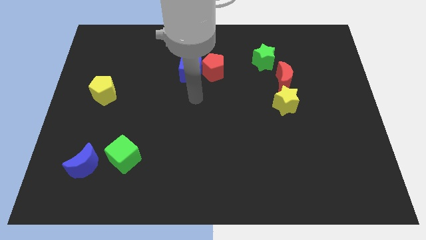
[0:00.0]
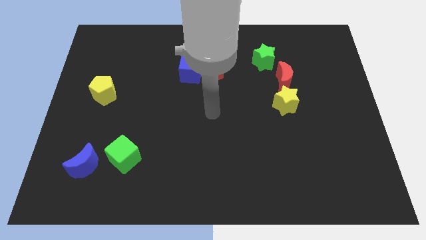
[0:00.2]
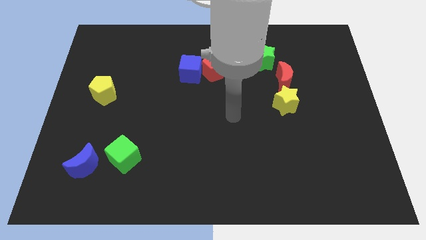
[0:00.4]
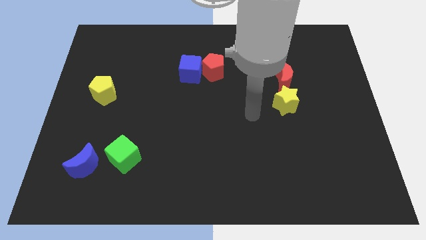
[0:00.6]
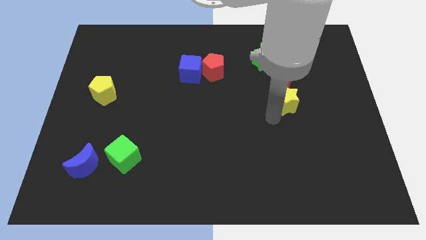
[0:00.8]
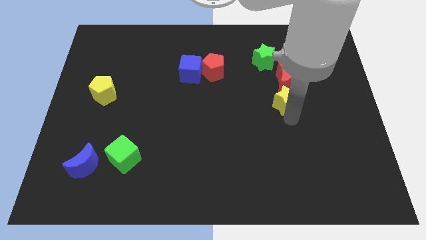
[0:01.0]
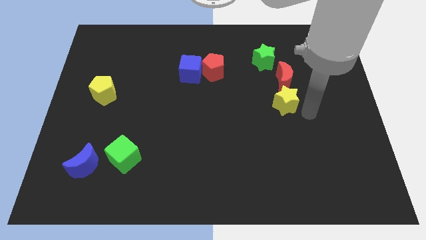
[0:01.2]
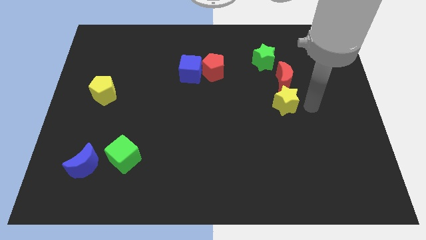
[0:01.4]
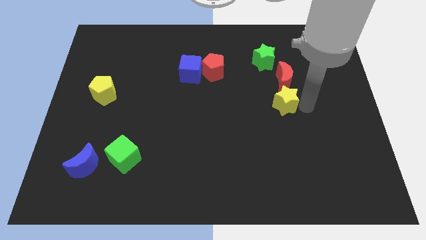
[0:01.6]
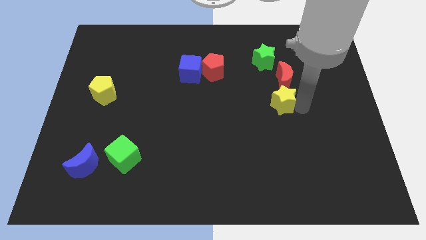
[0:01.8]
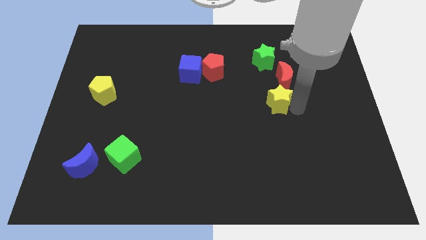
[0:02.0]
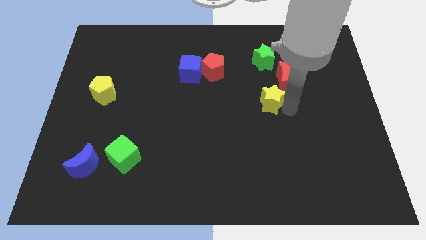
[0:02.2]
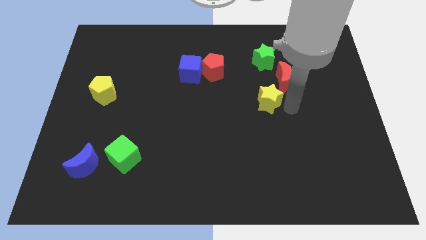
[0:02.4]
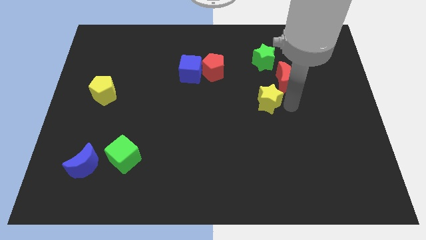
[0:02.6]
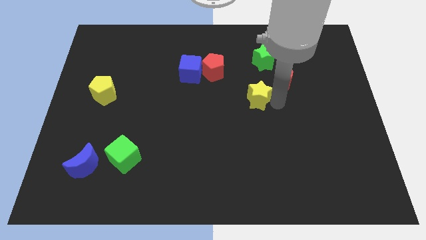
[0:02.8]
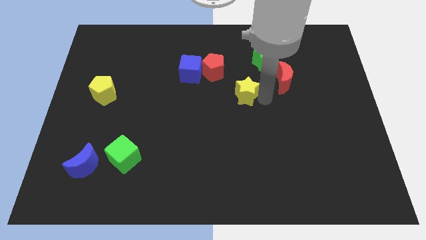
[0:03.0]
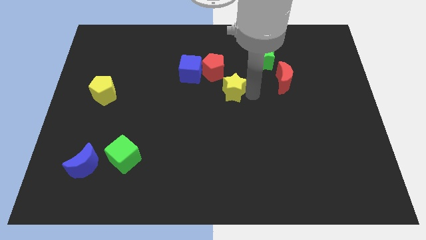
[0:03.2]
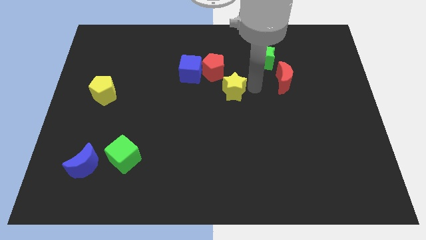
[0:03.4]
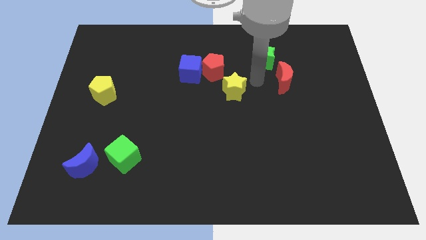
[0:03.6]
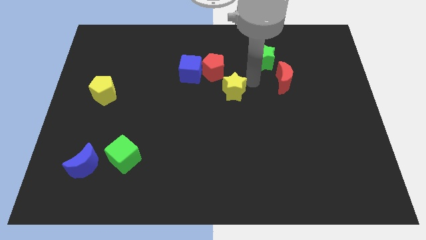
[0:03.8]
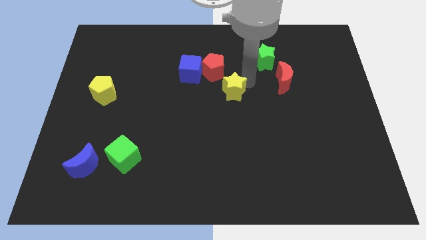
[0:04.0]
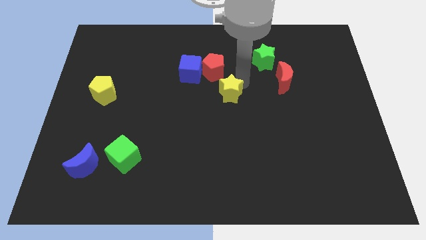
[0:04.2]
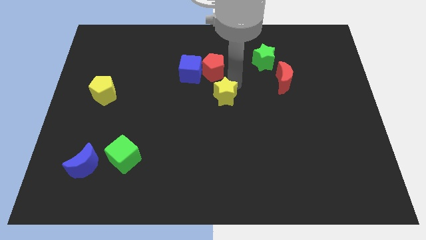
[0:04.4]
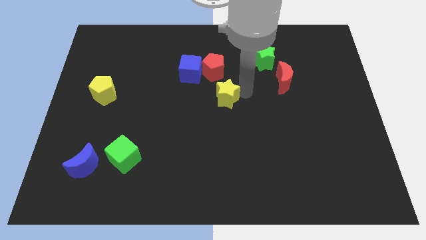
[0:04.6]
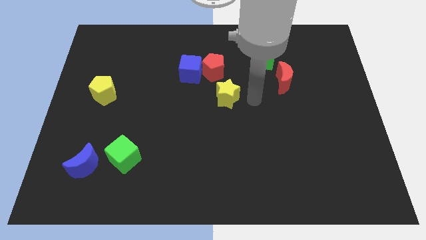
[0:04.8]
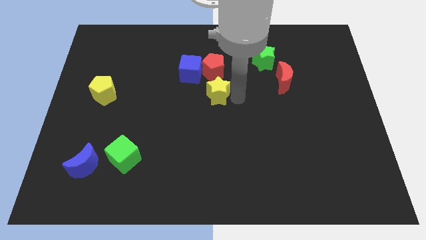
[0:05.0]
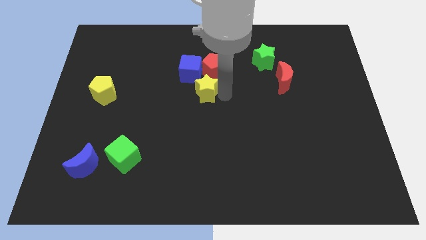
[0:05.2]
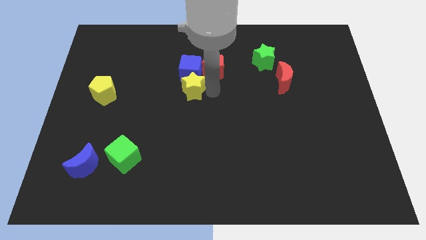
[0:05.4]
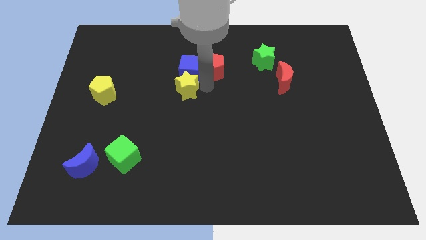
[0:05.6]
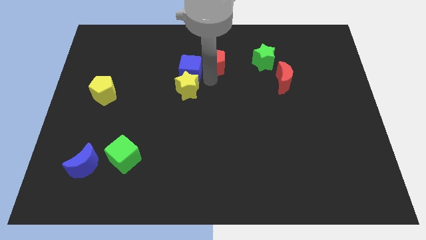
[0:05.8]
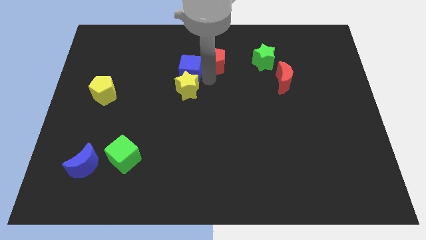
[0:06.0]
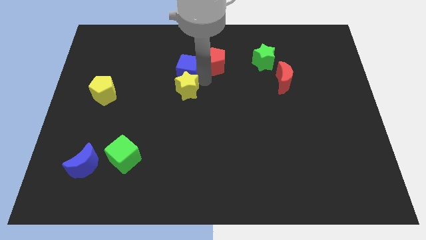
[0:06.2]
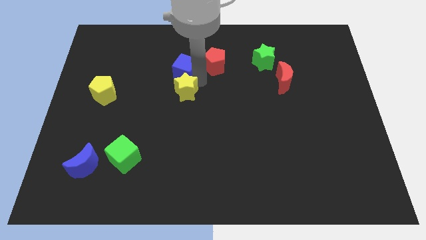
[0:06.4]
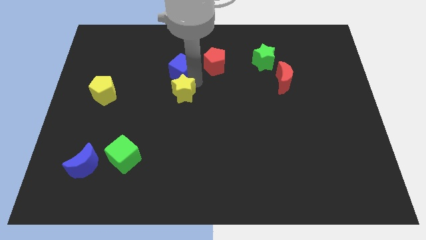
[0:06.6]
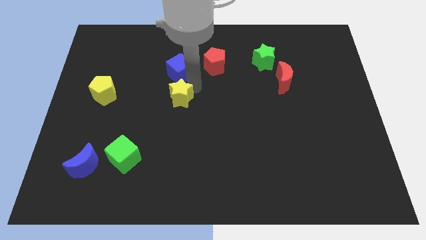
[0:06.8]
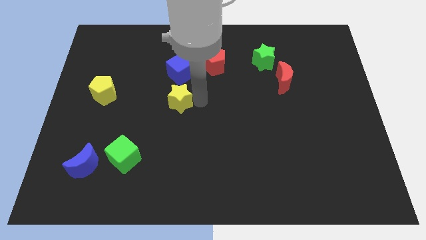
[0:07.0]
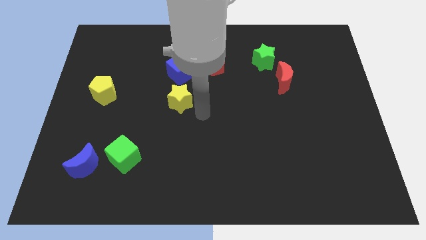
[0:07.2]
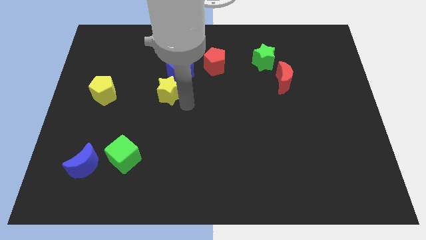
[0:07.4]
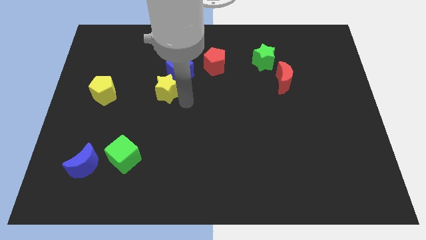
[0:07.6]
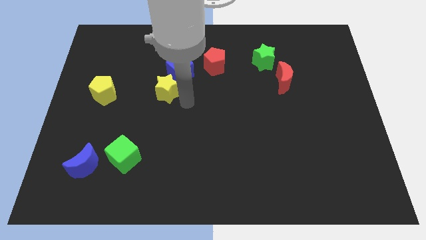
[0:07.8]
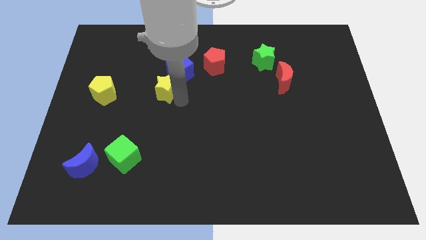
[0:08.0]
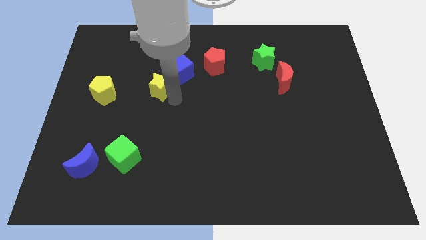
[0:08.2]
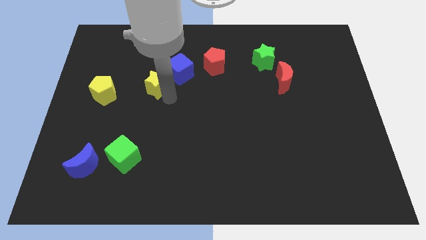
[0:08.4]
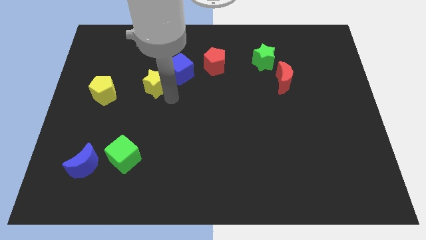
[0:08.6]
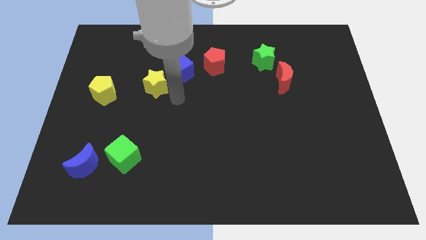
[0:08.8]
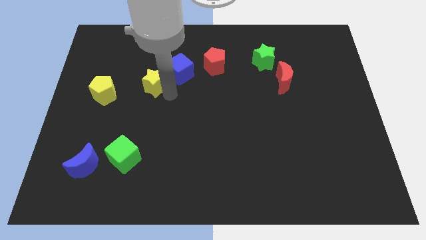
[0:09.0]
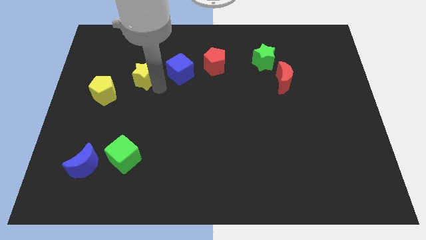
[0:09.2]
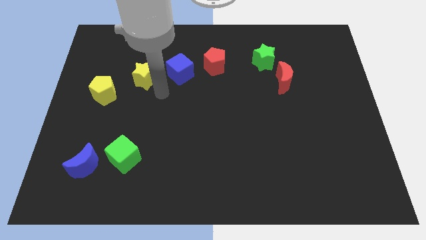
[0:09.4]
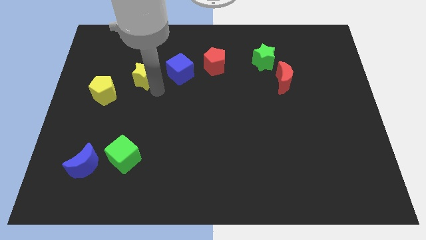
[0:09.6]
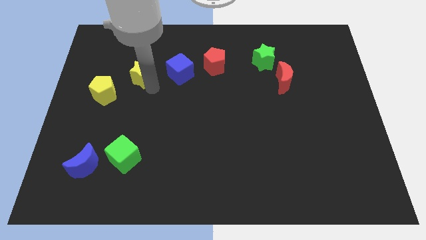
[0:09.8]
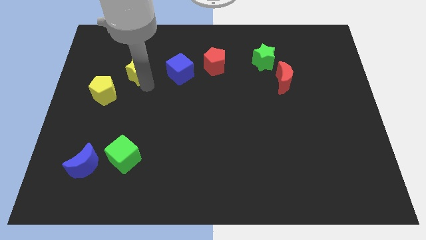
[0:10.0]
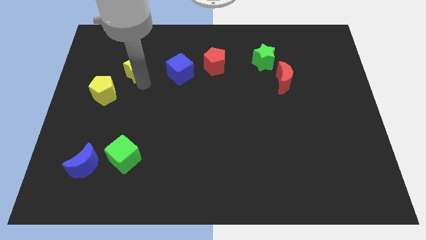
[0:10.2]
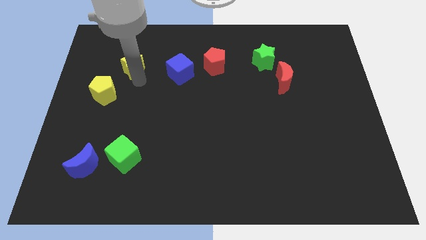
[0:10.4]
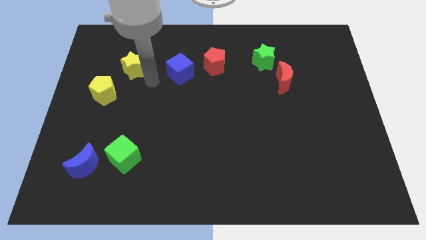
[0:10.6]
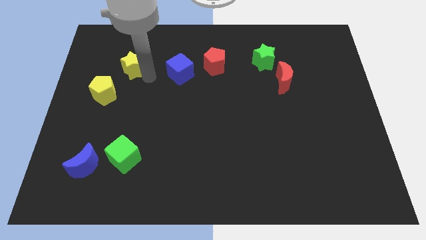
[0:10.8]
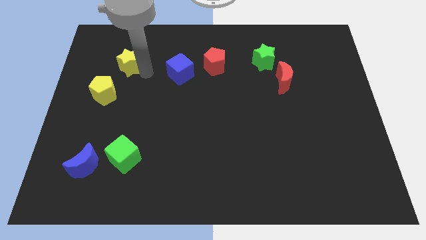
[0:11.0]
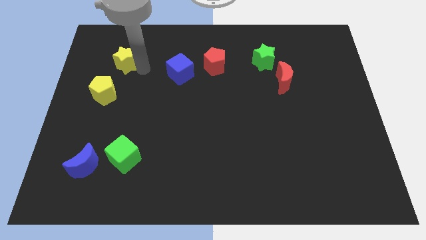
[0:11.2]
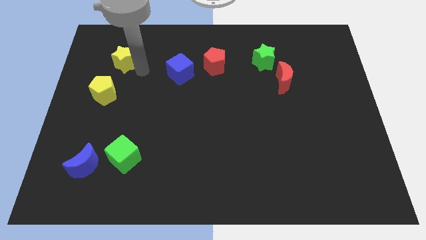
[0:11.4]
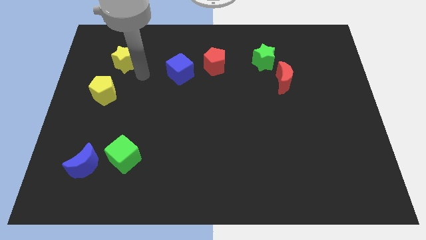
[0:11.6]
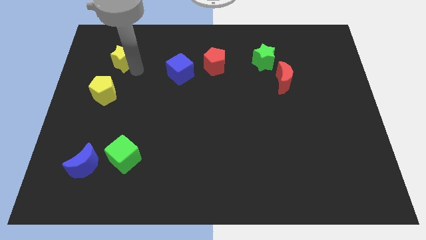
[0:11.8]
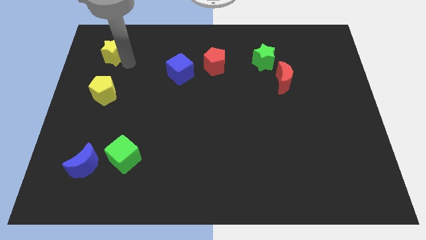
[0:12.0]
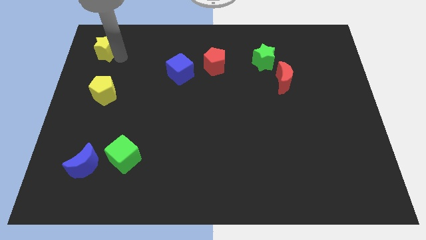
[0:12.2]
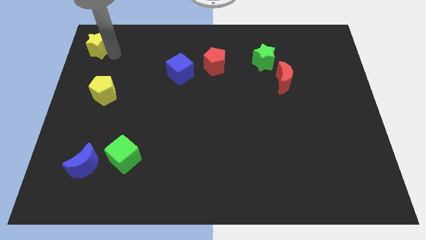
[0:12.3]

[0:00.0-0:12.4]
push the yellow star to the top left

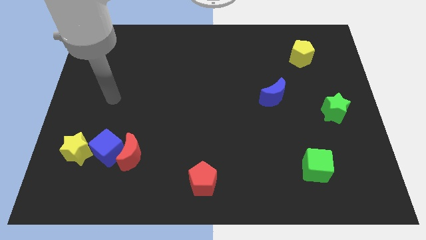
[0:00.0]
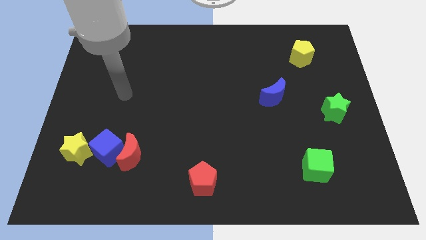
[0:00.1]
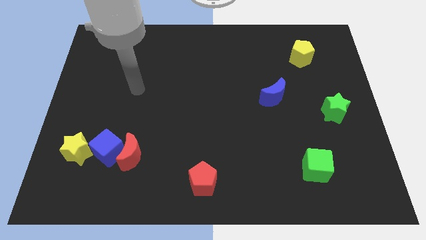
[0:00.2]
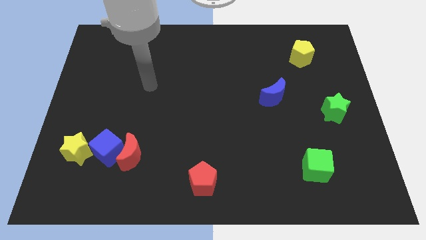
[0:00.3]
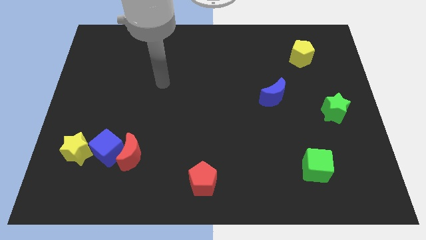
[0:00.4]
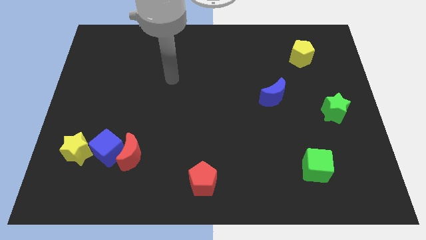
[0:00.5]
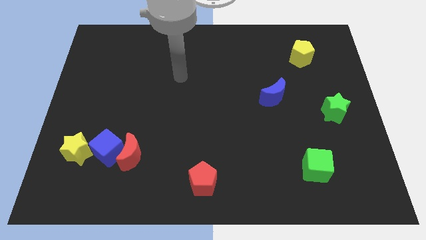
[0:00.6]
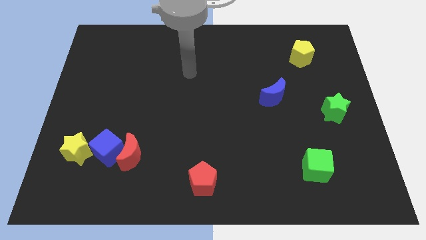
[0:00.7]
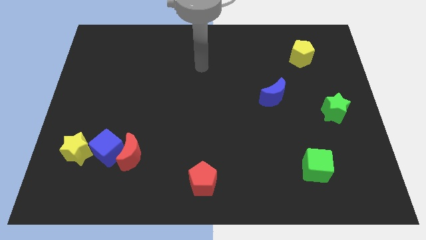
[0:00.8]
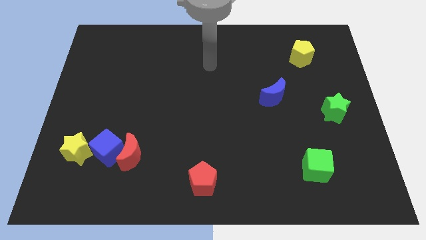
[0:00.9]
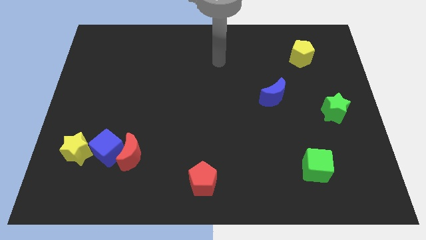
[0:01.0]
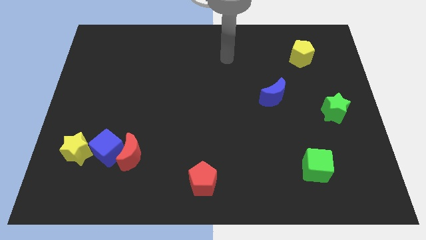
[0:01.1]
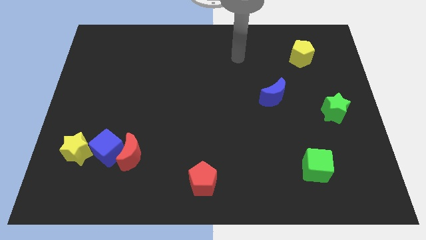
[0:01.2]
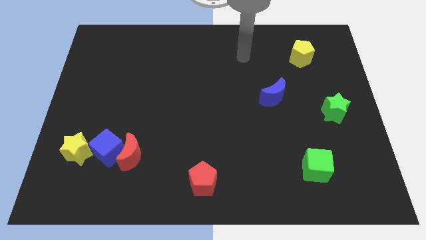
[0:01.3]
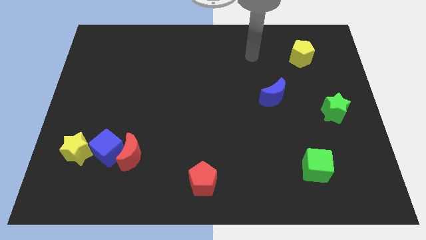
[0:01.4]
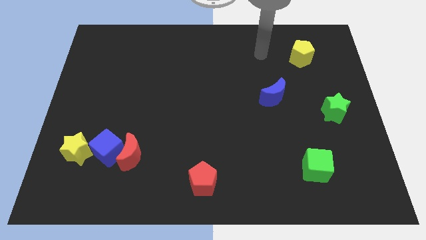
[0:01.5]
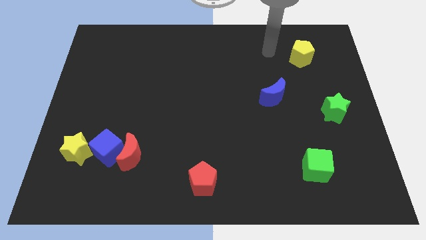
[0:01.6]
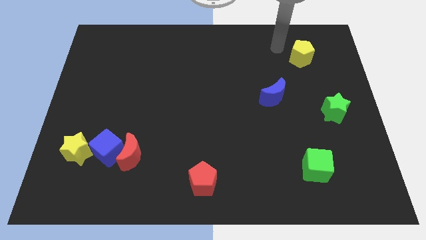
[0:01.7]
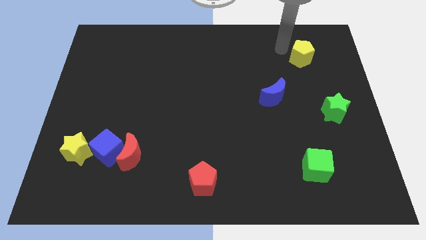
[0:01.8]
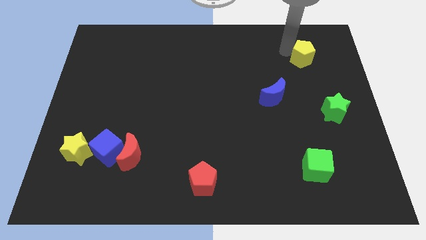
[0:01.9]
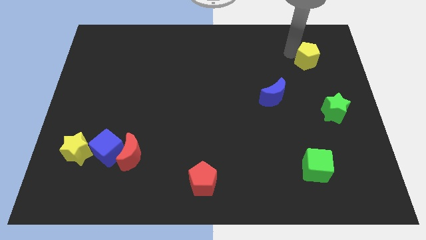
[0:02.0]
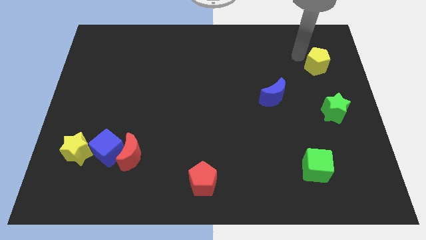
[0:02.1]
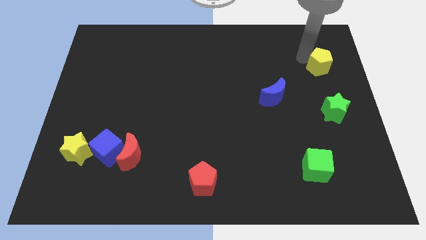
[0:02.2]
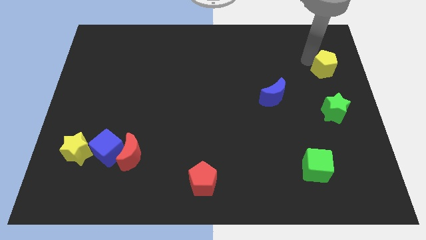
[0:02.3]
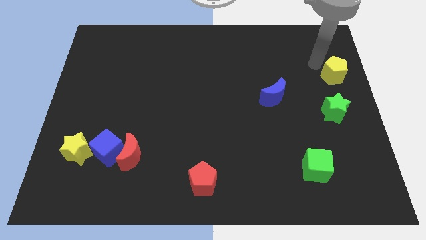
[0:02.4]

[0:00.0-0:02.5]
move the yellow pentagon to the right side
